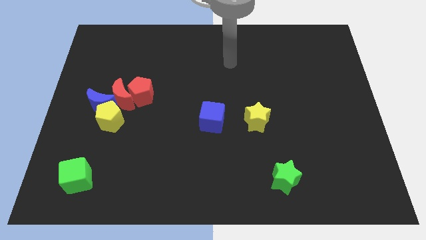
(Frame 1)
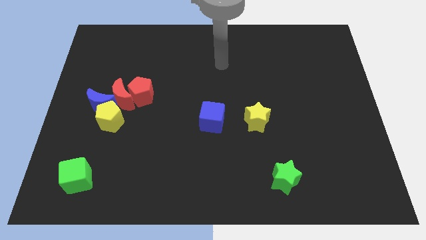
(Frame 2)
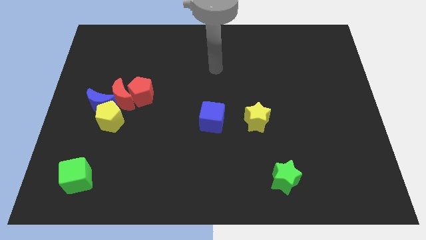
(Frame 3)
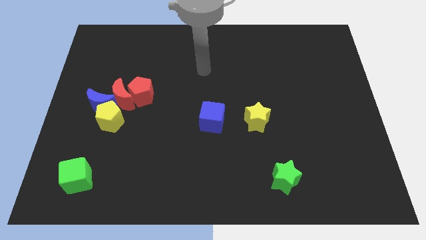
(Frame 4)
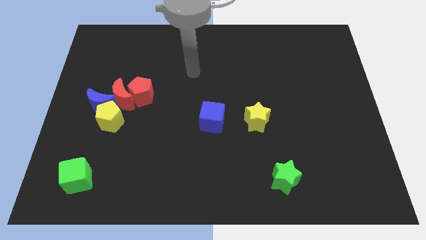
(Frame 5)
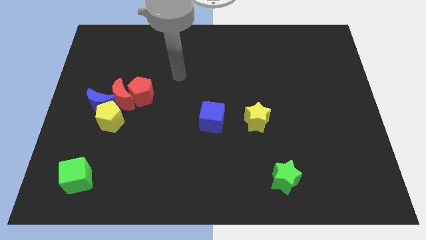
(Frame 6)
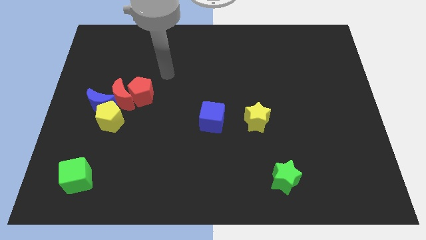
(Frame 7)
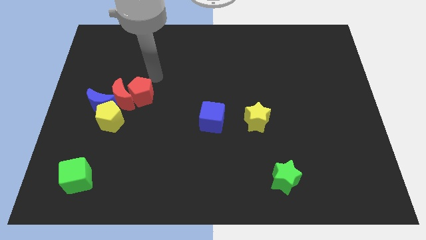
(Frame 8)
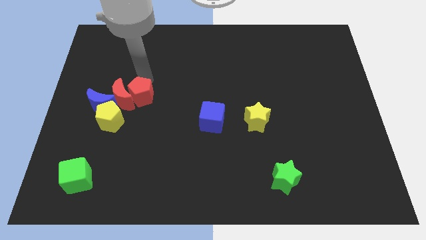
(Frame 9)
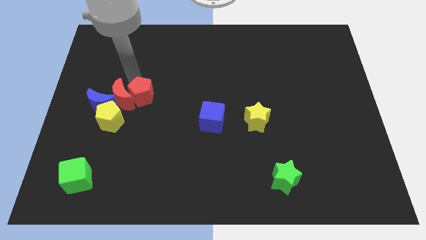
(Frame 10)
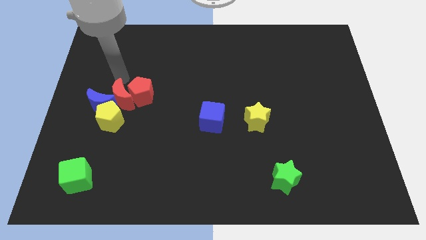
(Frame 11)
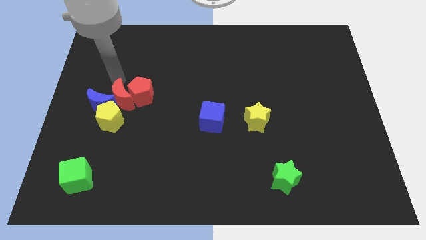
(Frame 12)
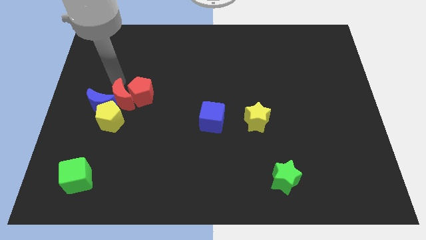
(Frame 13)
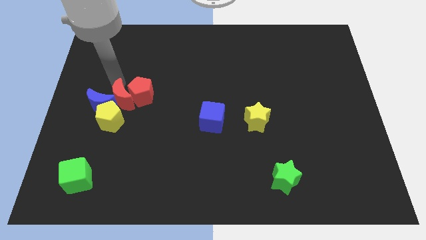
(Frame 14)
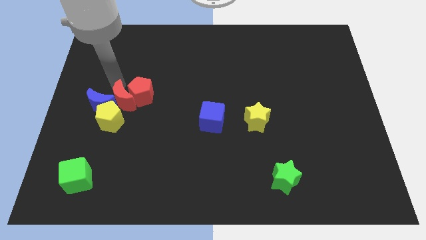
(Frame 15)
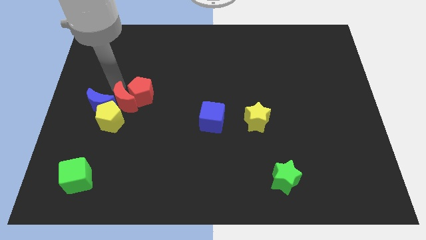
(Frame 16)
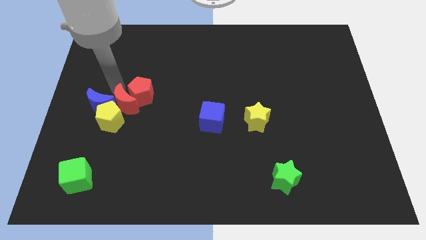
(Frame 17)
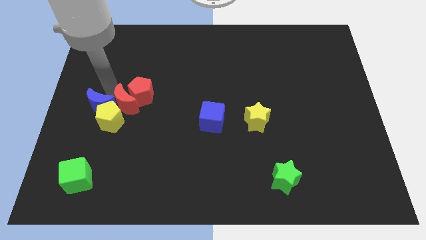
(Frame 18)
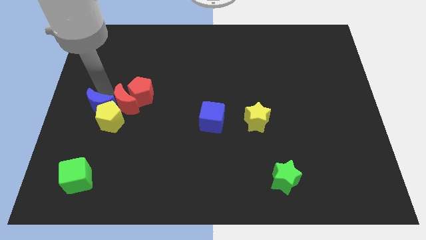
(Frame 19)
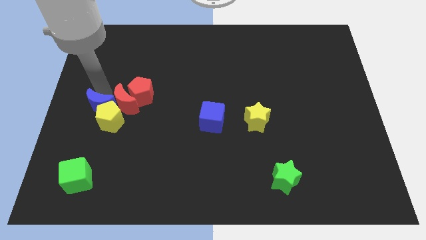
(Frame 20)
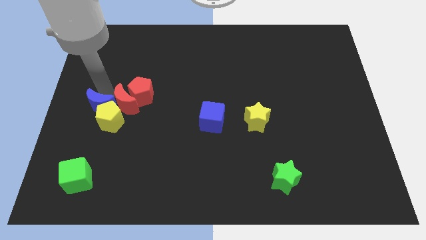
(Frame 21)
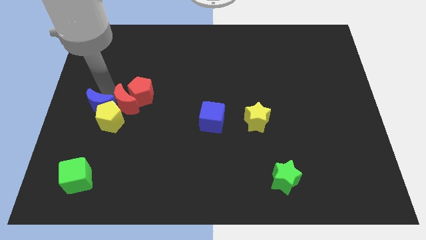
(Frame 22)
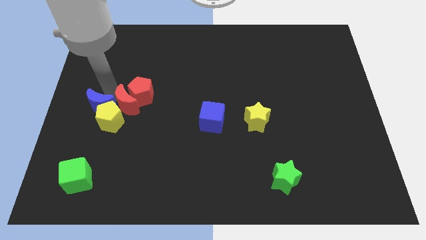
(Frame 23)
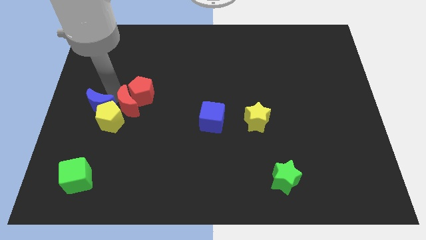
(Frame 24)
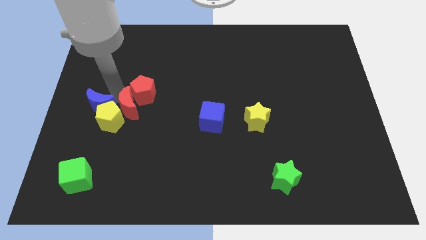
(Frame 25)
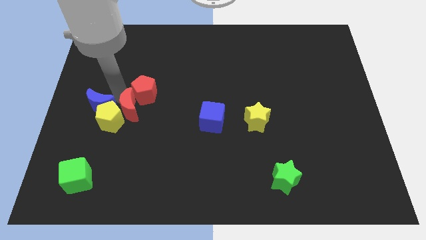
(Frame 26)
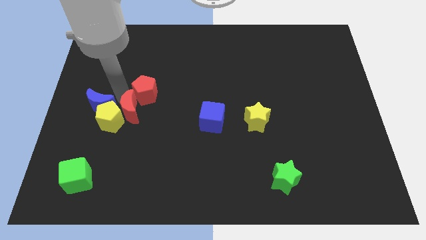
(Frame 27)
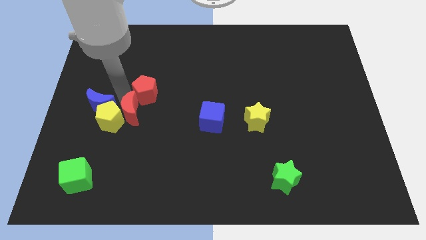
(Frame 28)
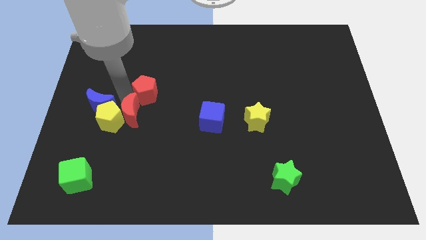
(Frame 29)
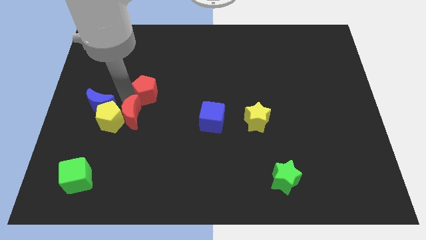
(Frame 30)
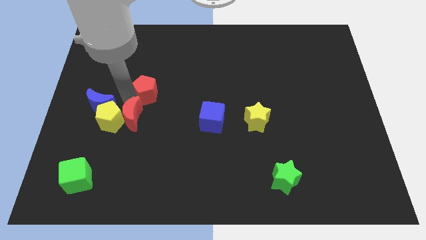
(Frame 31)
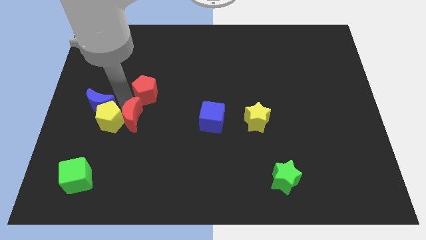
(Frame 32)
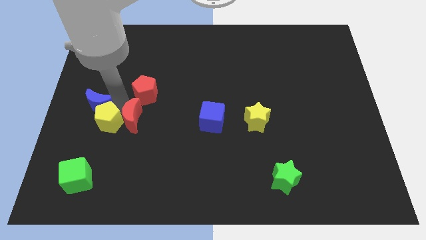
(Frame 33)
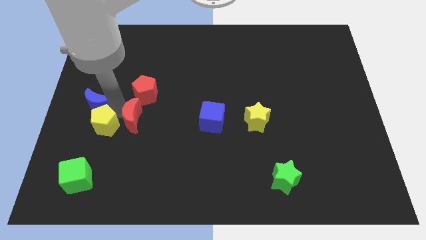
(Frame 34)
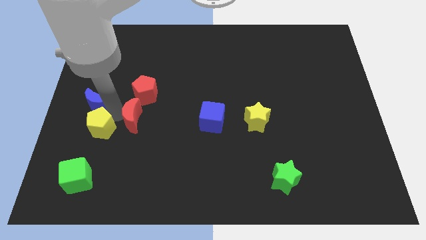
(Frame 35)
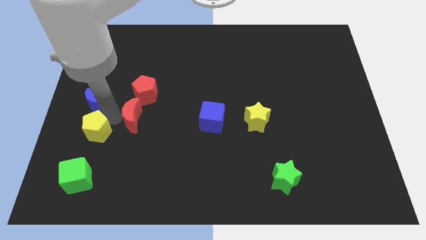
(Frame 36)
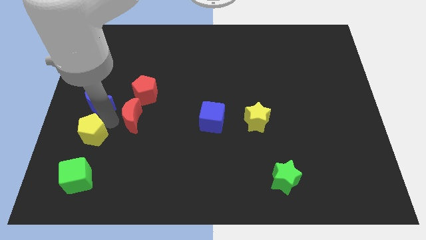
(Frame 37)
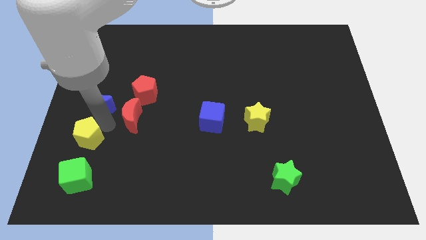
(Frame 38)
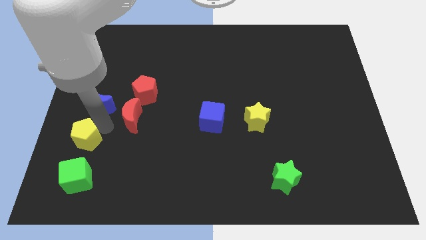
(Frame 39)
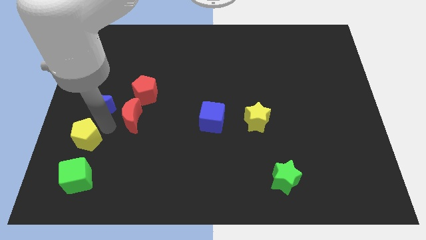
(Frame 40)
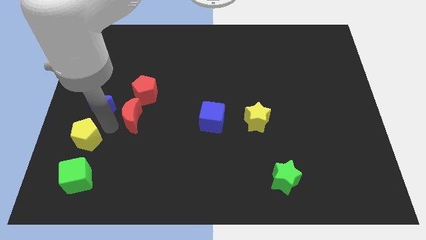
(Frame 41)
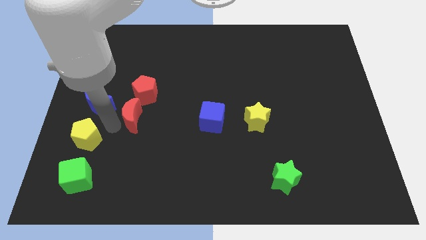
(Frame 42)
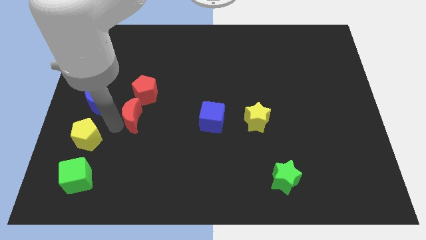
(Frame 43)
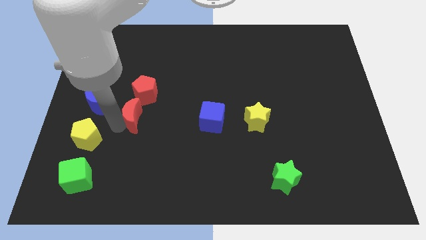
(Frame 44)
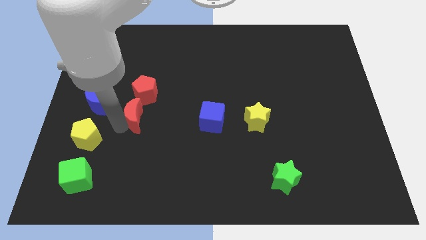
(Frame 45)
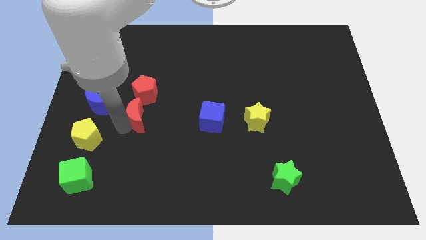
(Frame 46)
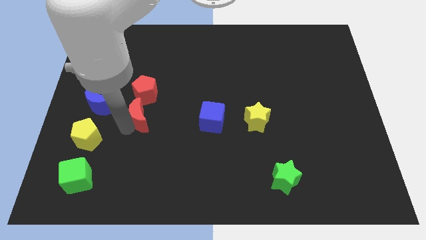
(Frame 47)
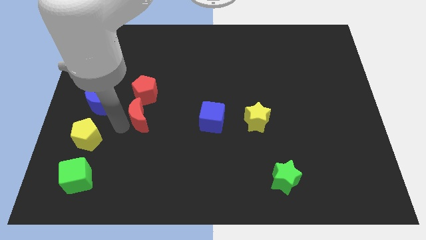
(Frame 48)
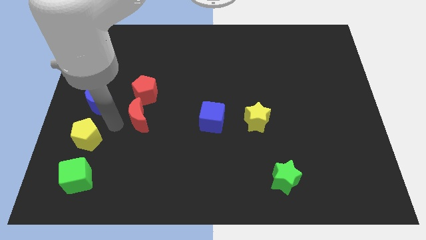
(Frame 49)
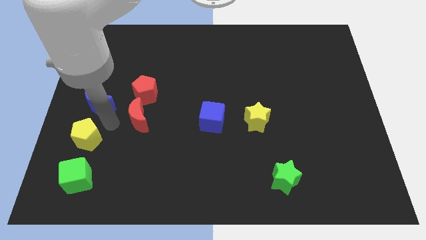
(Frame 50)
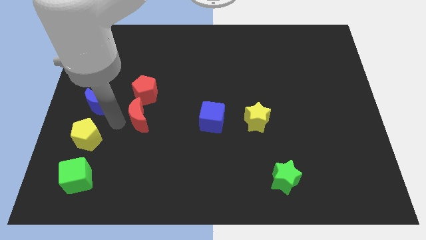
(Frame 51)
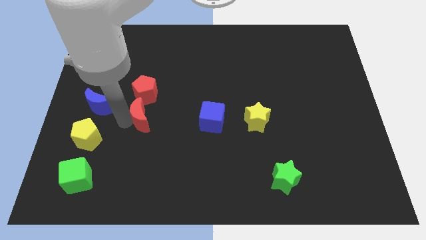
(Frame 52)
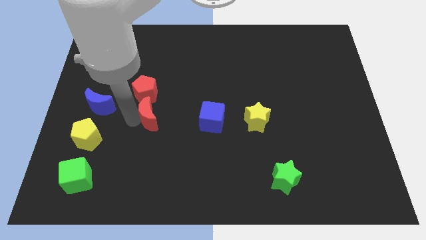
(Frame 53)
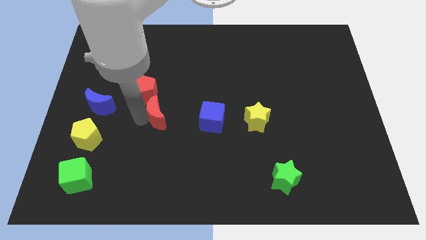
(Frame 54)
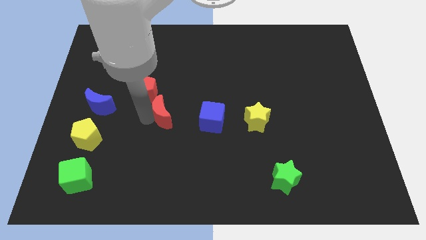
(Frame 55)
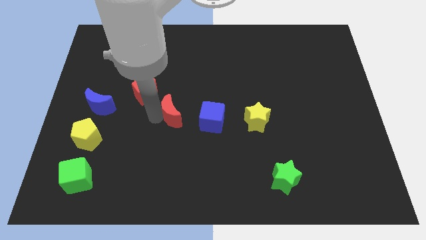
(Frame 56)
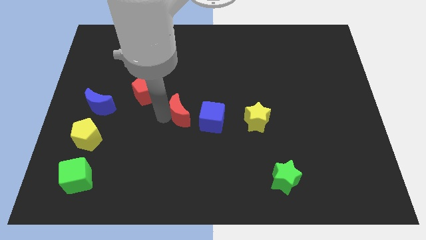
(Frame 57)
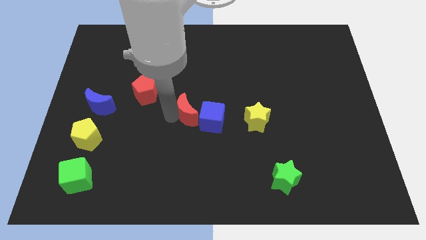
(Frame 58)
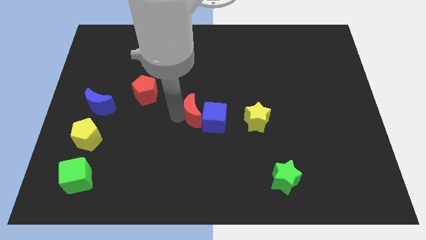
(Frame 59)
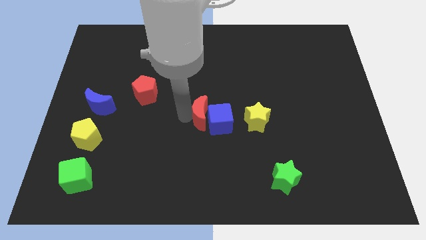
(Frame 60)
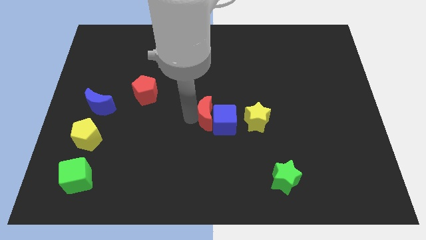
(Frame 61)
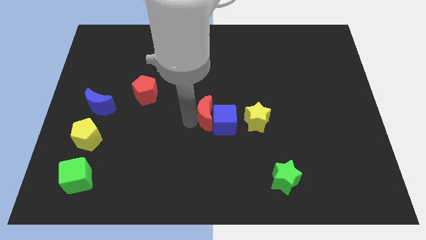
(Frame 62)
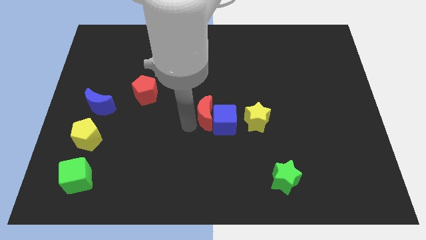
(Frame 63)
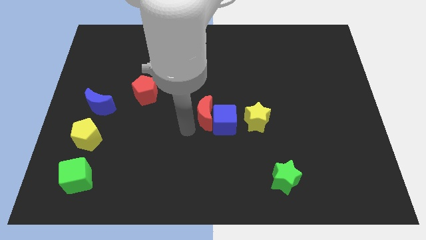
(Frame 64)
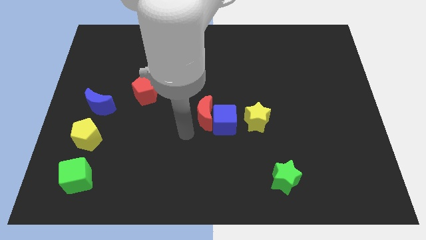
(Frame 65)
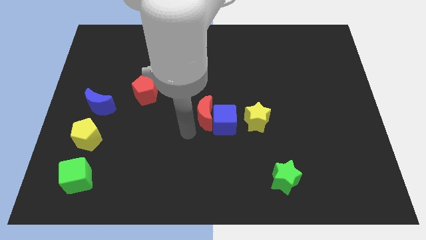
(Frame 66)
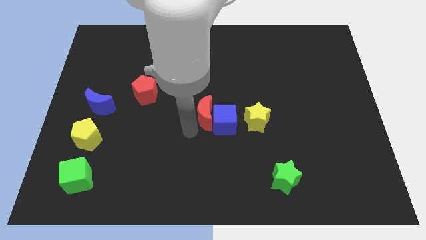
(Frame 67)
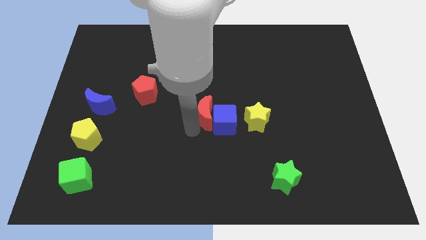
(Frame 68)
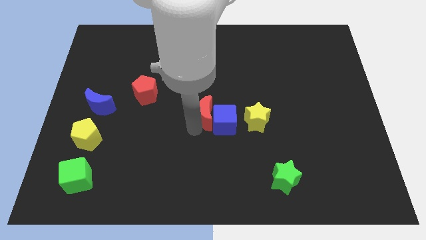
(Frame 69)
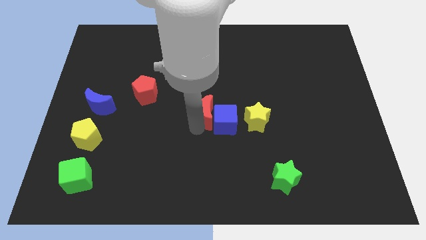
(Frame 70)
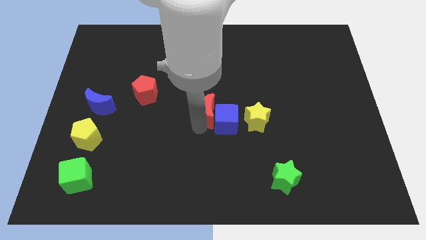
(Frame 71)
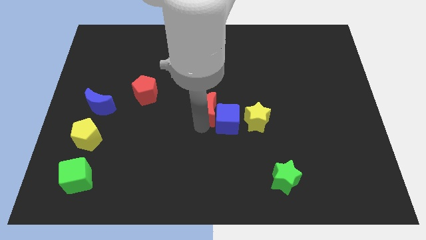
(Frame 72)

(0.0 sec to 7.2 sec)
slide the red moon right

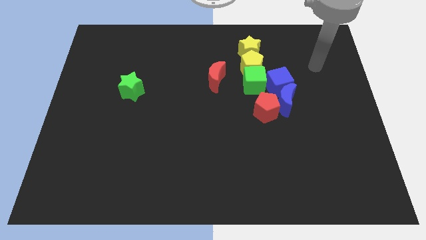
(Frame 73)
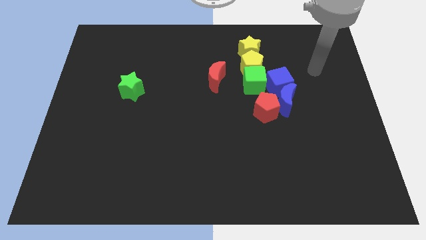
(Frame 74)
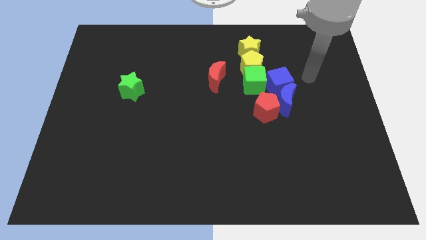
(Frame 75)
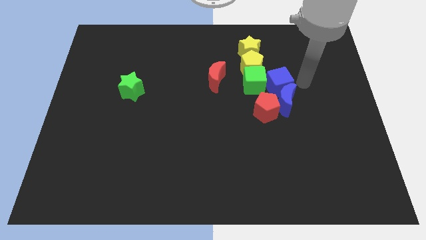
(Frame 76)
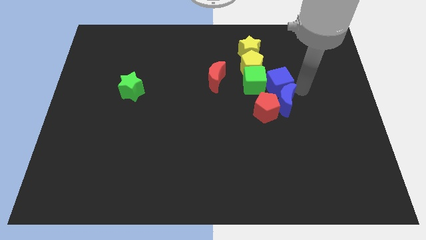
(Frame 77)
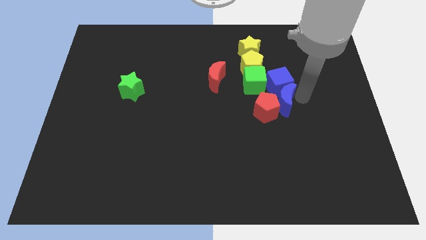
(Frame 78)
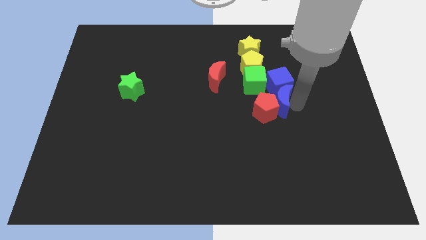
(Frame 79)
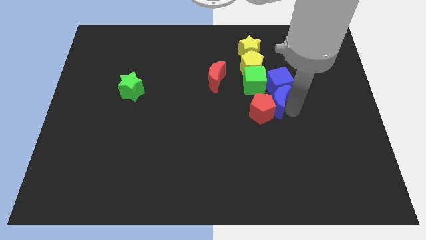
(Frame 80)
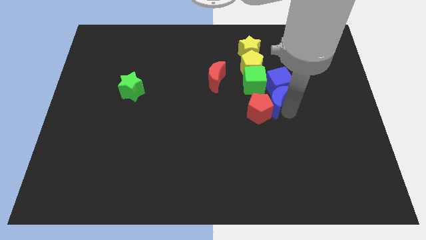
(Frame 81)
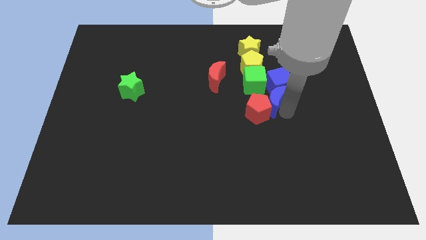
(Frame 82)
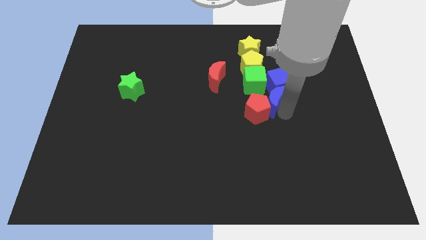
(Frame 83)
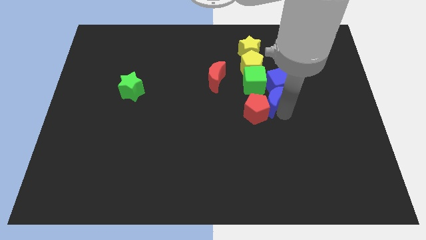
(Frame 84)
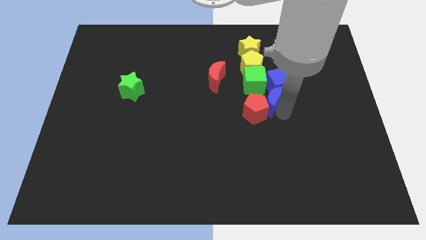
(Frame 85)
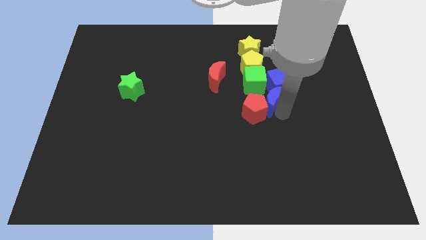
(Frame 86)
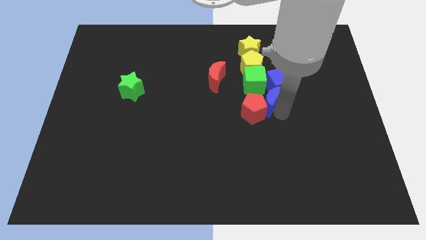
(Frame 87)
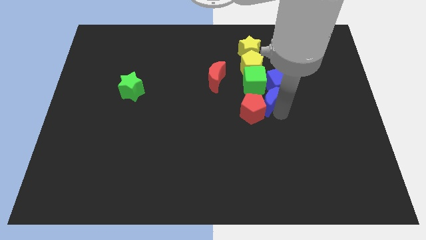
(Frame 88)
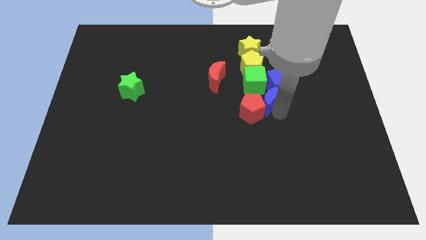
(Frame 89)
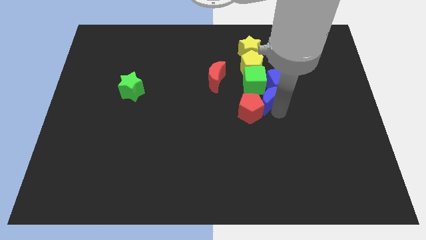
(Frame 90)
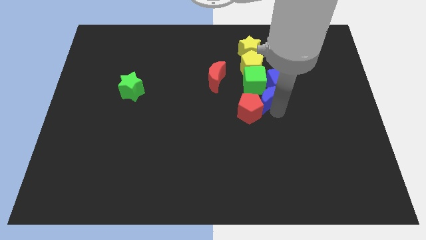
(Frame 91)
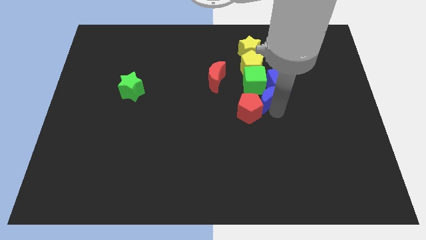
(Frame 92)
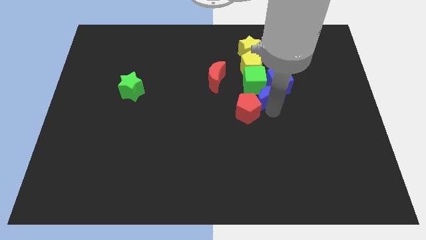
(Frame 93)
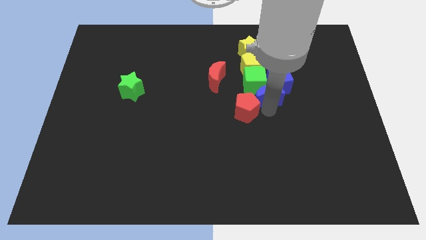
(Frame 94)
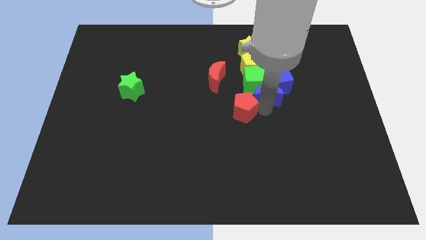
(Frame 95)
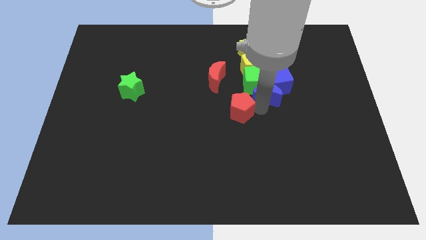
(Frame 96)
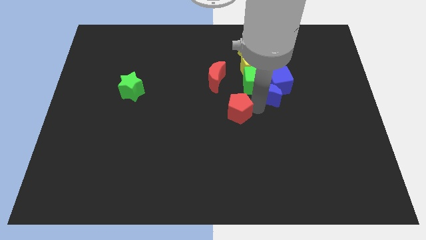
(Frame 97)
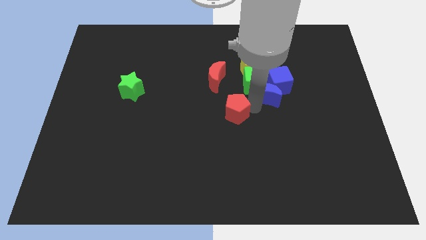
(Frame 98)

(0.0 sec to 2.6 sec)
slightly push the red pentagon left
